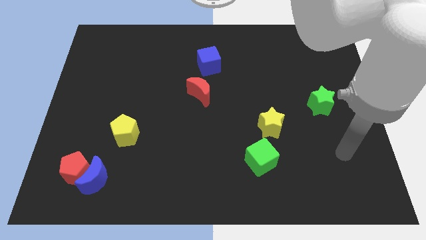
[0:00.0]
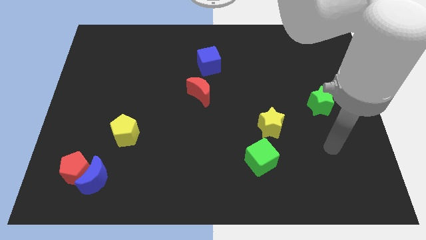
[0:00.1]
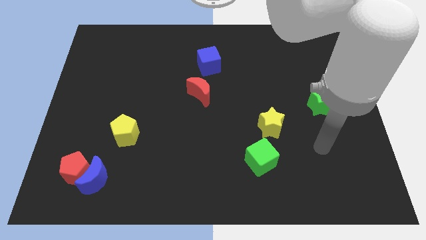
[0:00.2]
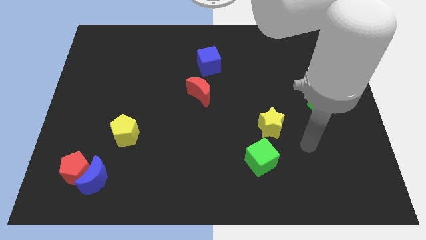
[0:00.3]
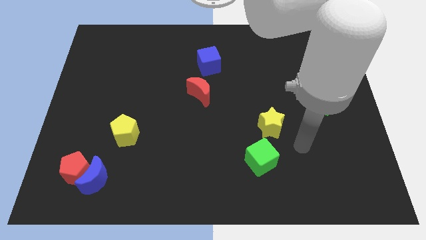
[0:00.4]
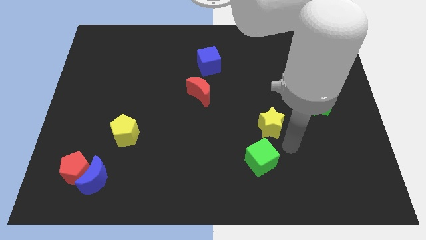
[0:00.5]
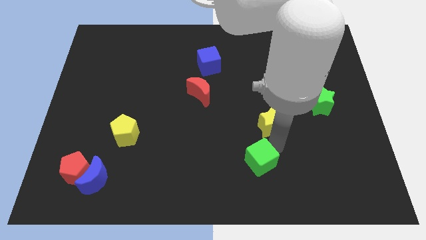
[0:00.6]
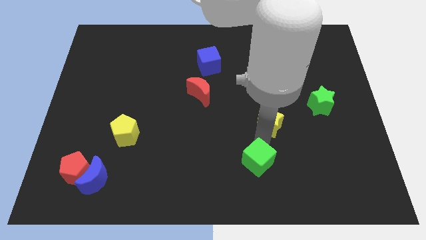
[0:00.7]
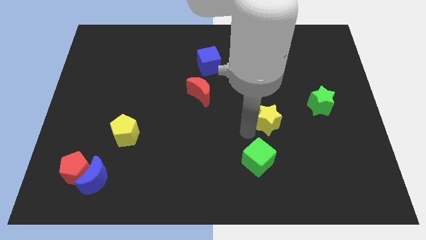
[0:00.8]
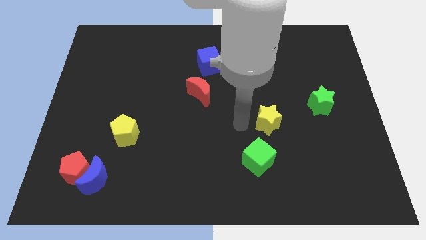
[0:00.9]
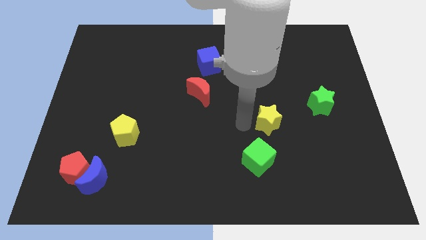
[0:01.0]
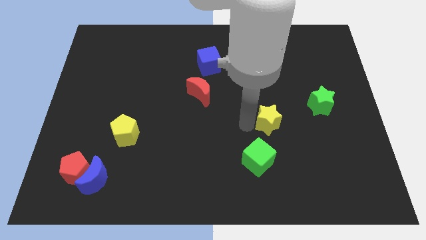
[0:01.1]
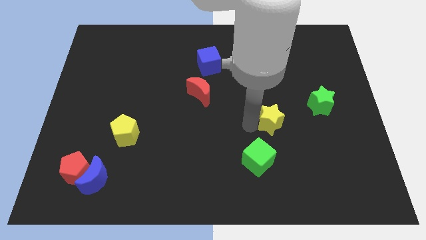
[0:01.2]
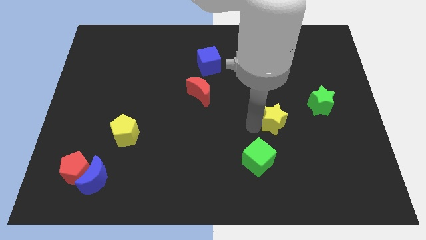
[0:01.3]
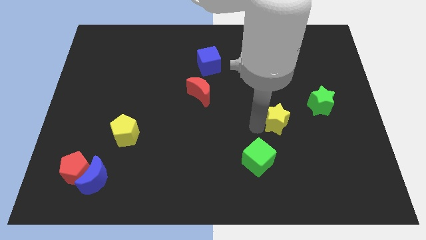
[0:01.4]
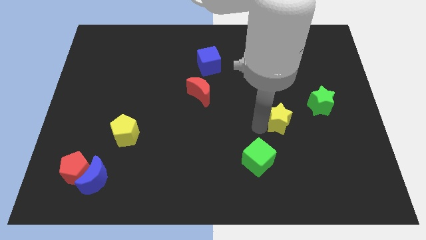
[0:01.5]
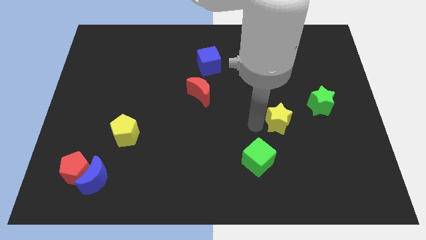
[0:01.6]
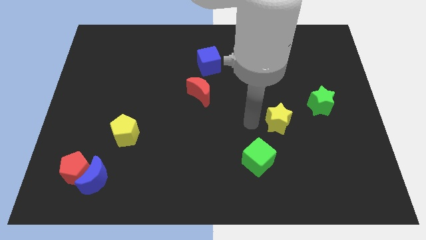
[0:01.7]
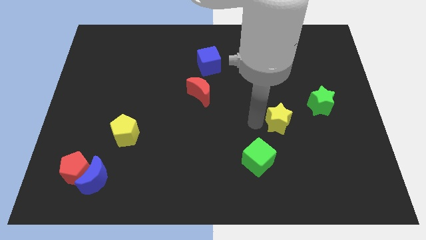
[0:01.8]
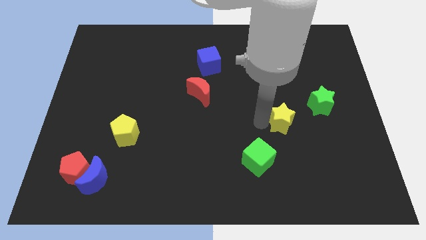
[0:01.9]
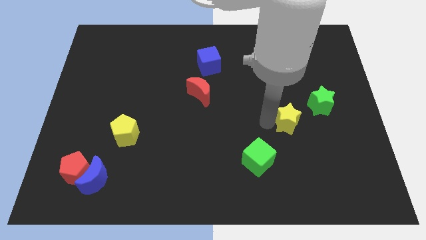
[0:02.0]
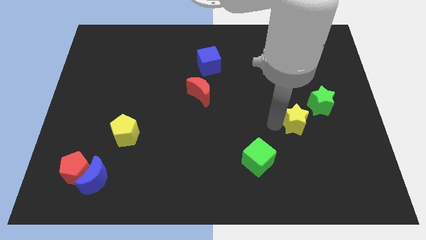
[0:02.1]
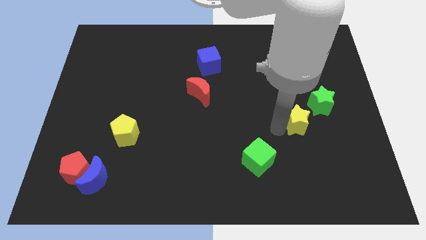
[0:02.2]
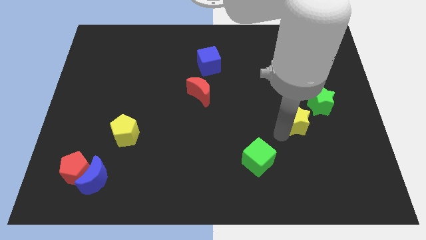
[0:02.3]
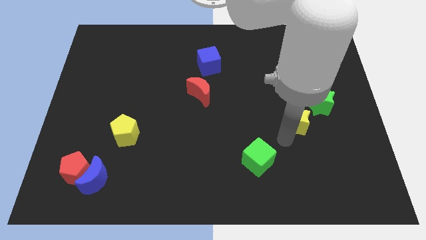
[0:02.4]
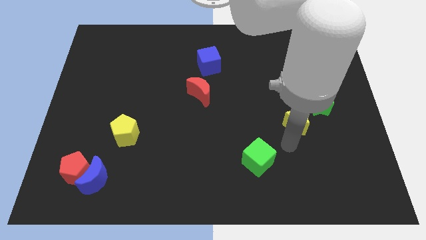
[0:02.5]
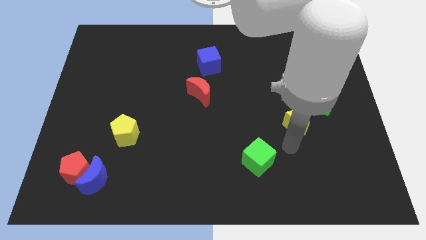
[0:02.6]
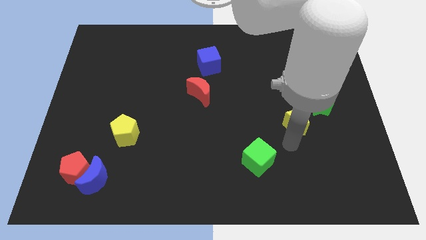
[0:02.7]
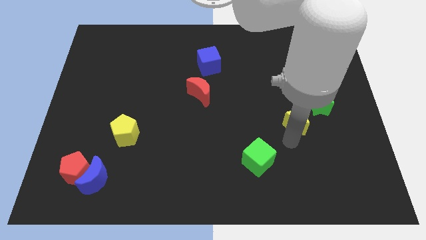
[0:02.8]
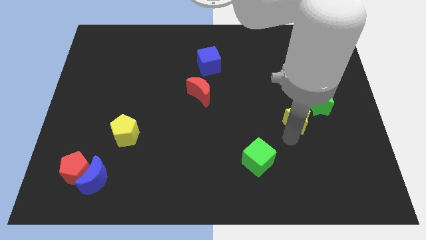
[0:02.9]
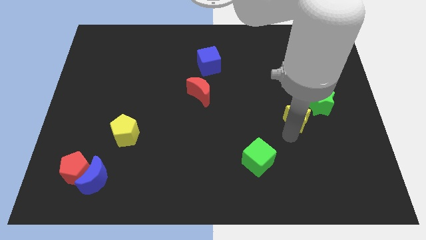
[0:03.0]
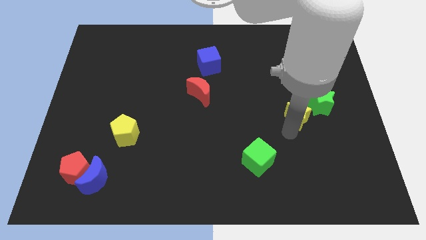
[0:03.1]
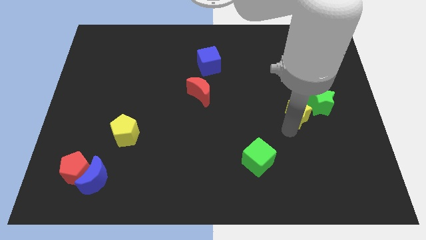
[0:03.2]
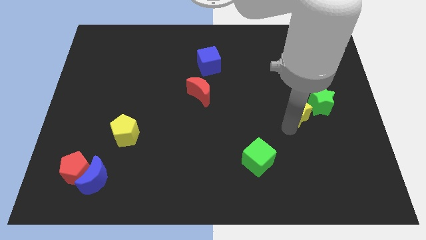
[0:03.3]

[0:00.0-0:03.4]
slide the yellow star slightly upwards and then to the right

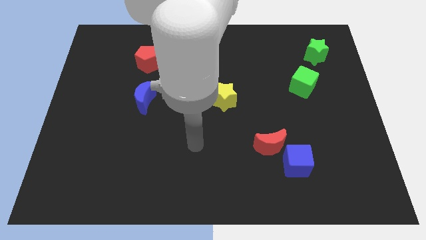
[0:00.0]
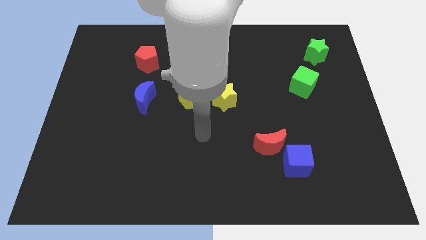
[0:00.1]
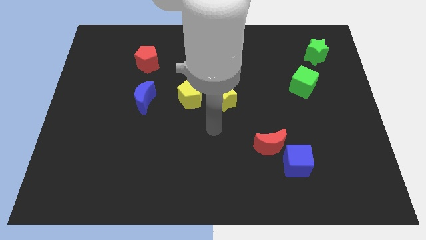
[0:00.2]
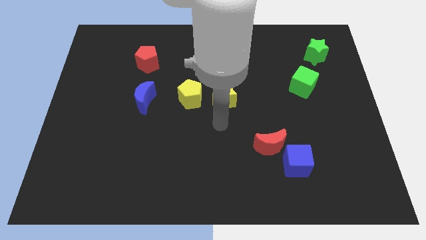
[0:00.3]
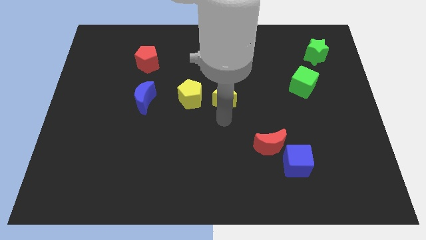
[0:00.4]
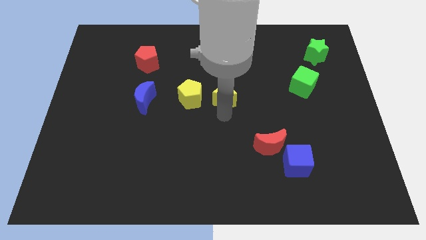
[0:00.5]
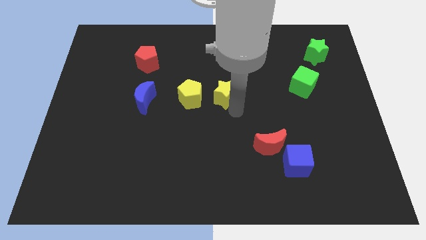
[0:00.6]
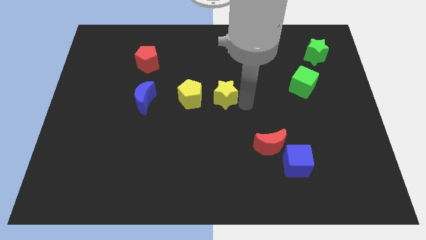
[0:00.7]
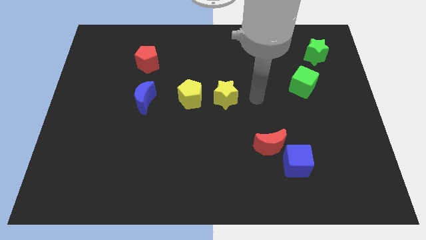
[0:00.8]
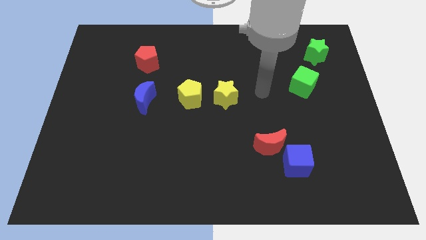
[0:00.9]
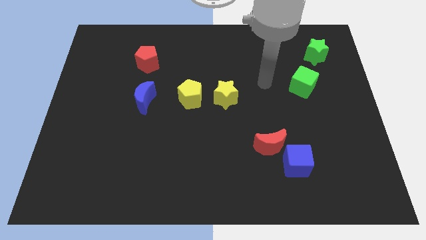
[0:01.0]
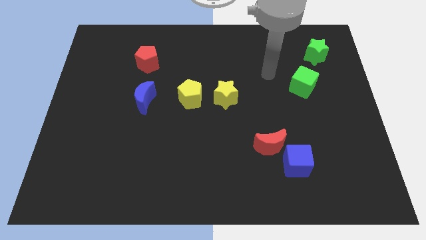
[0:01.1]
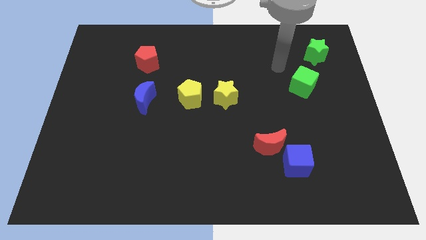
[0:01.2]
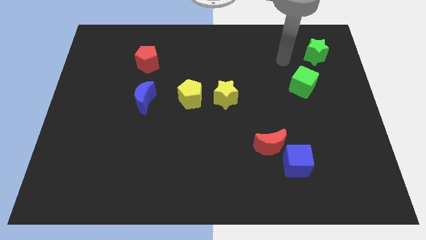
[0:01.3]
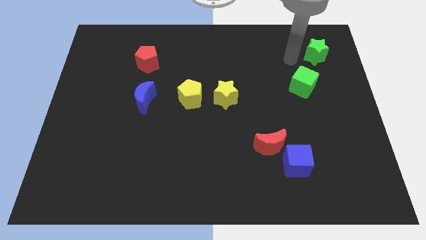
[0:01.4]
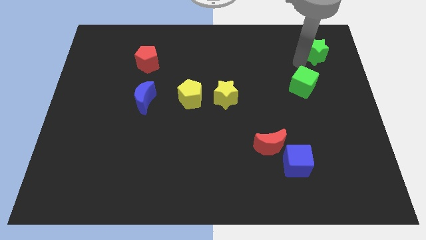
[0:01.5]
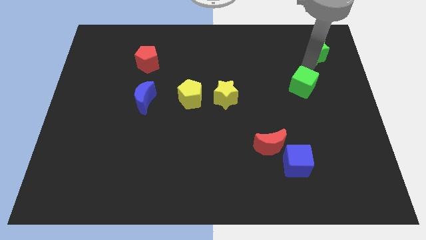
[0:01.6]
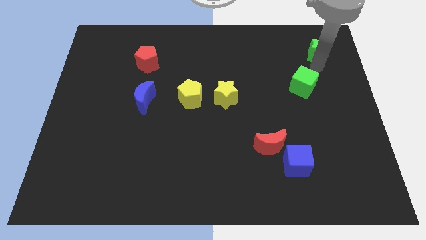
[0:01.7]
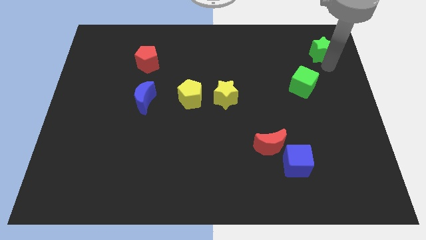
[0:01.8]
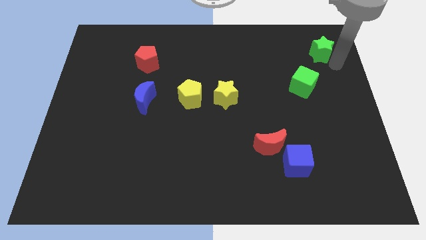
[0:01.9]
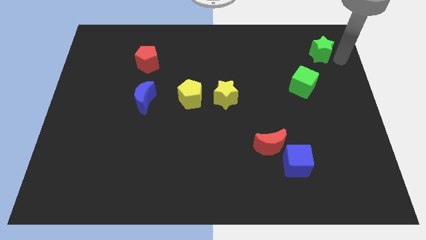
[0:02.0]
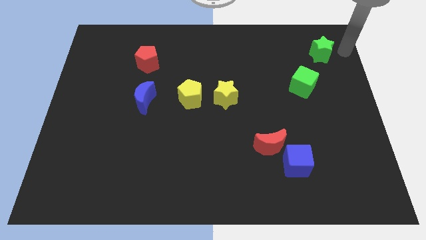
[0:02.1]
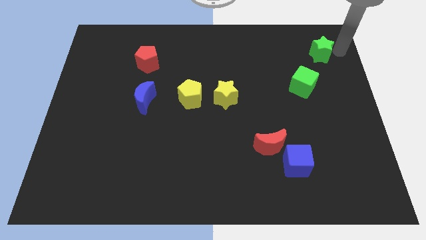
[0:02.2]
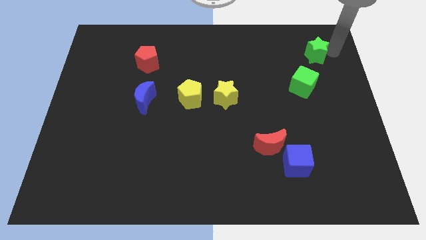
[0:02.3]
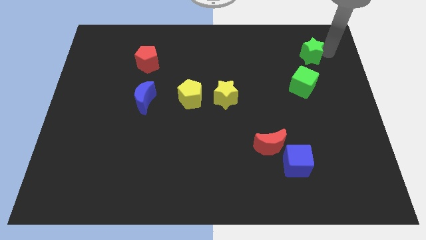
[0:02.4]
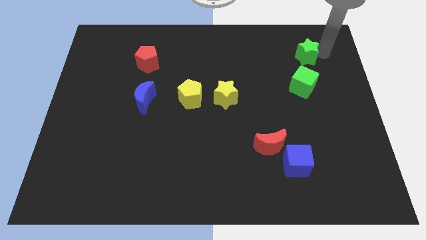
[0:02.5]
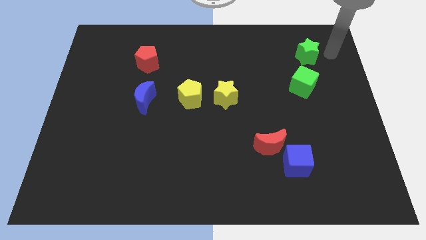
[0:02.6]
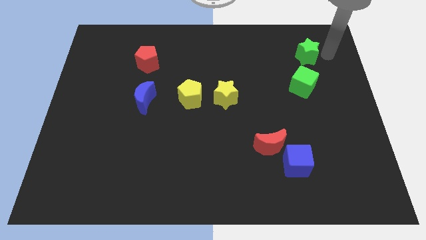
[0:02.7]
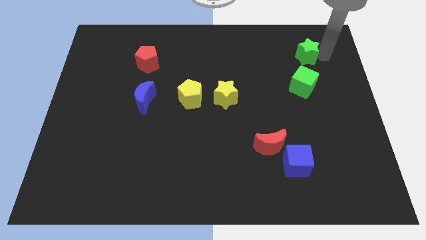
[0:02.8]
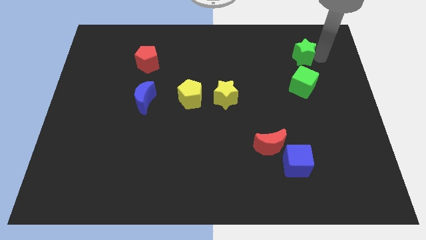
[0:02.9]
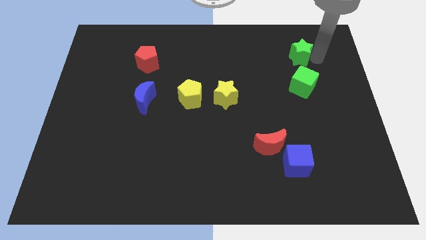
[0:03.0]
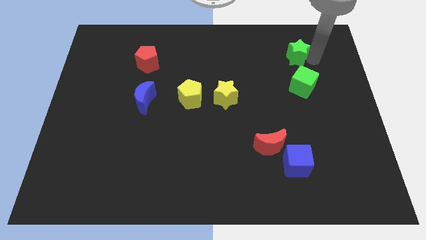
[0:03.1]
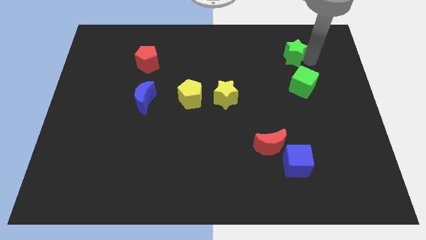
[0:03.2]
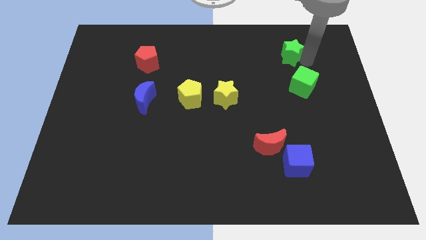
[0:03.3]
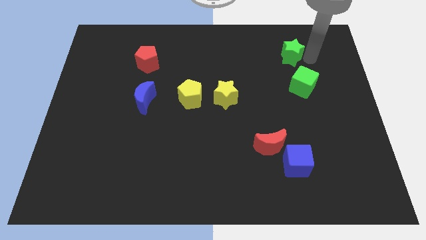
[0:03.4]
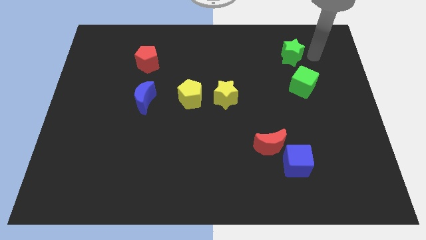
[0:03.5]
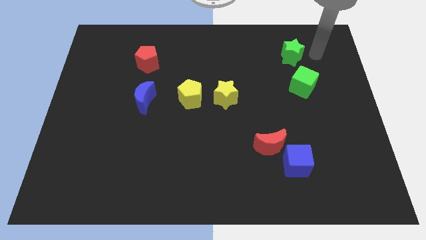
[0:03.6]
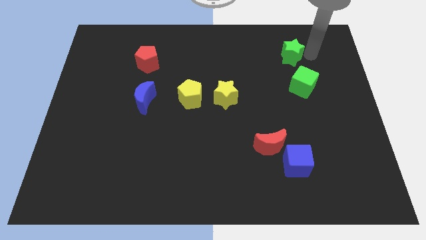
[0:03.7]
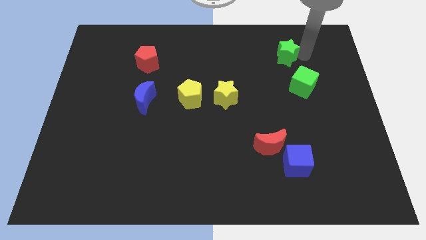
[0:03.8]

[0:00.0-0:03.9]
slightly slide the green star left

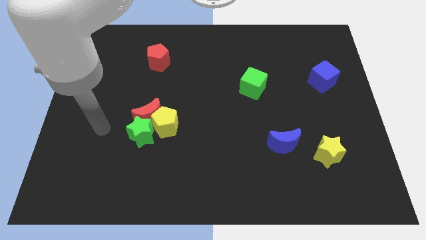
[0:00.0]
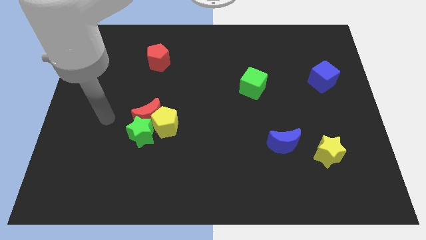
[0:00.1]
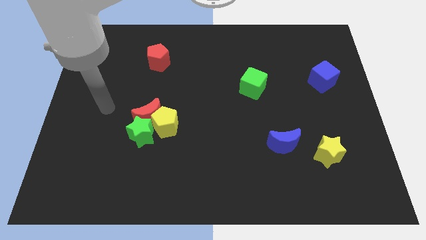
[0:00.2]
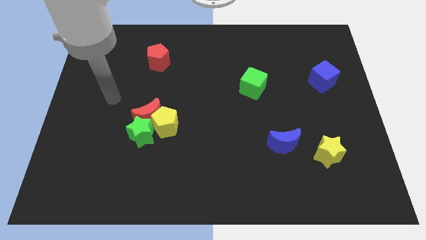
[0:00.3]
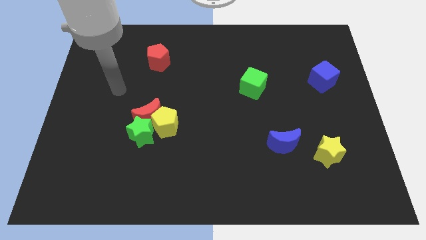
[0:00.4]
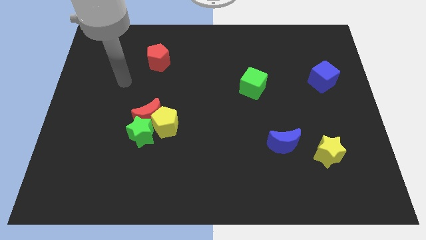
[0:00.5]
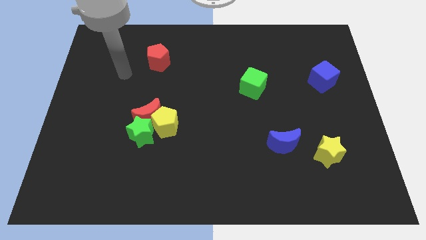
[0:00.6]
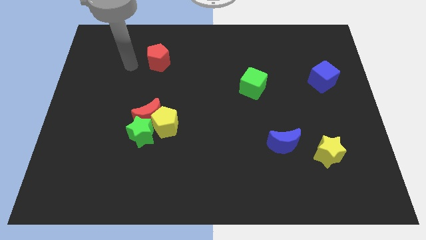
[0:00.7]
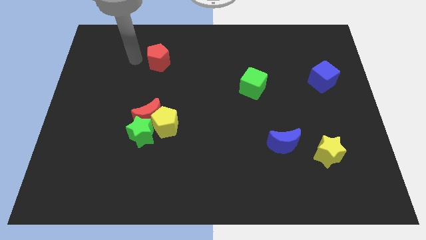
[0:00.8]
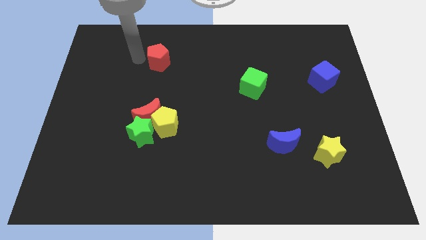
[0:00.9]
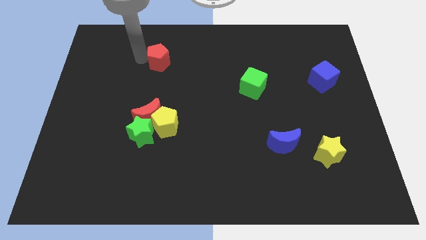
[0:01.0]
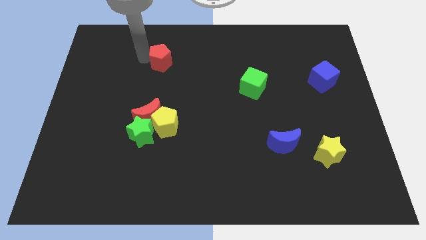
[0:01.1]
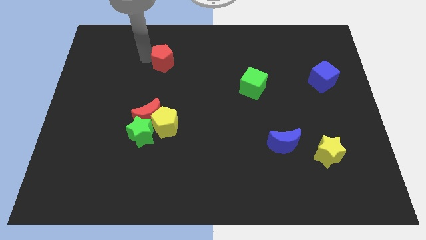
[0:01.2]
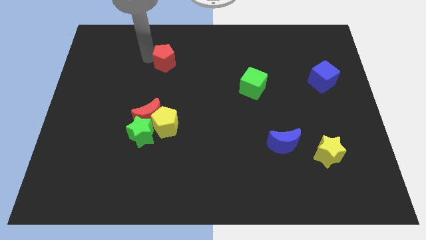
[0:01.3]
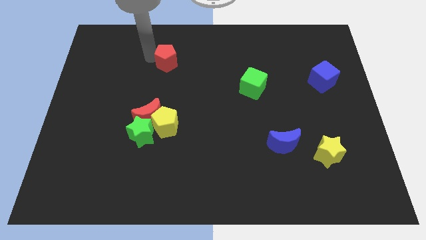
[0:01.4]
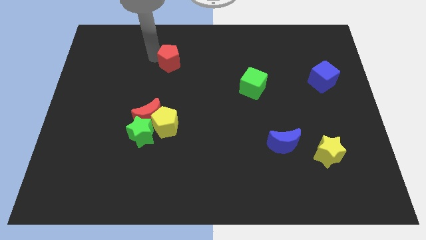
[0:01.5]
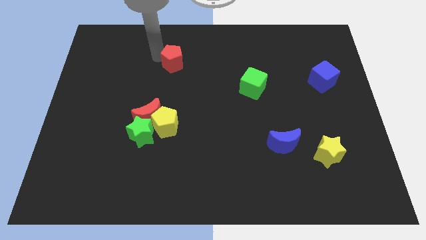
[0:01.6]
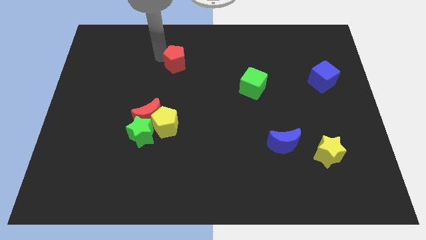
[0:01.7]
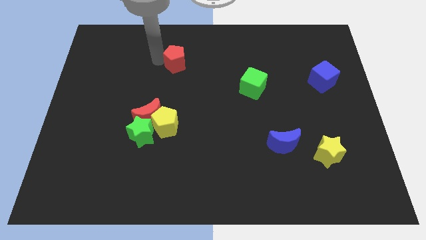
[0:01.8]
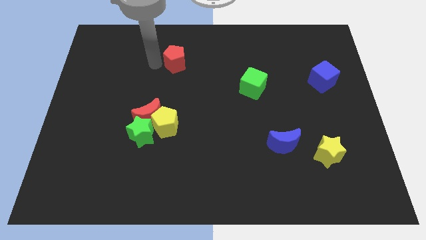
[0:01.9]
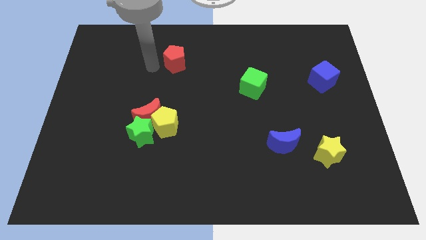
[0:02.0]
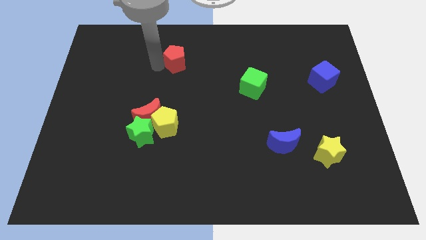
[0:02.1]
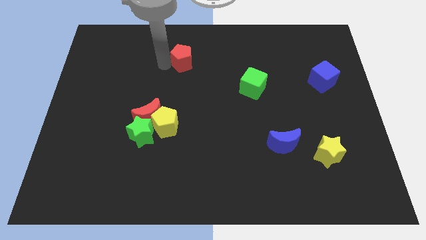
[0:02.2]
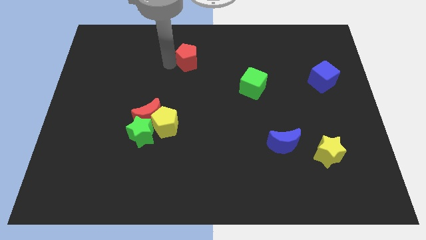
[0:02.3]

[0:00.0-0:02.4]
slightly slide the red pentagon to the right
